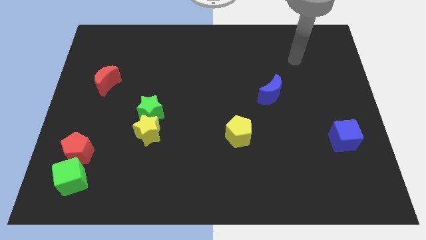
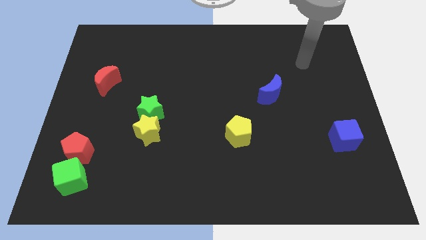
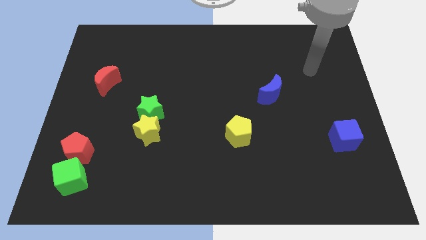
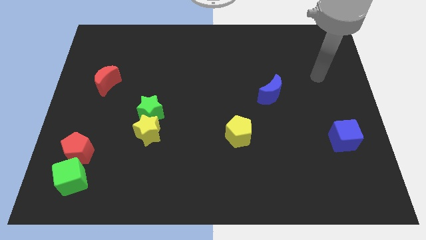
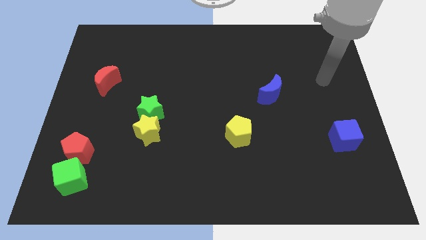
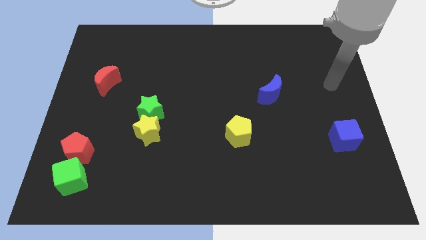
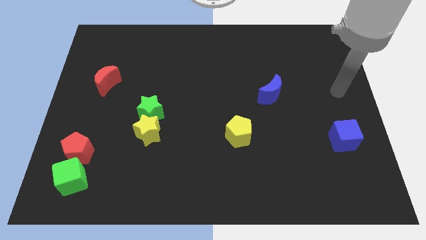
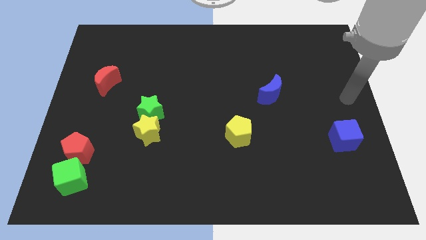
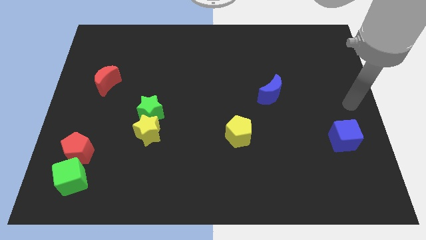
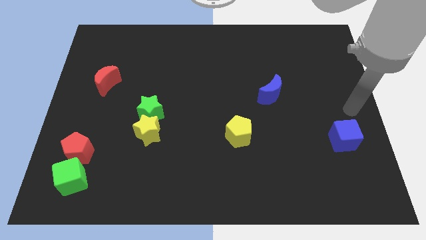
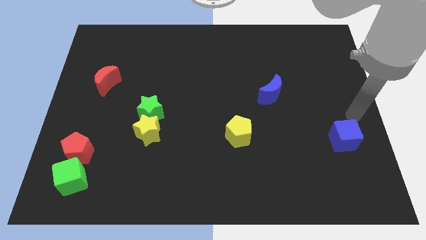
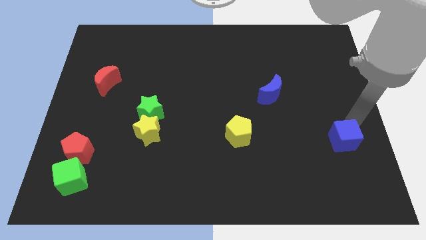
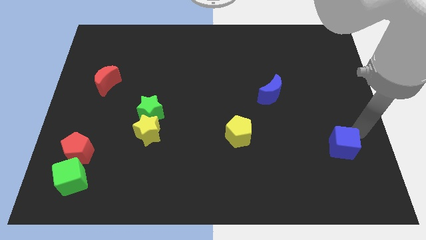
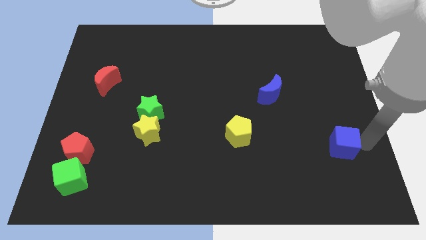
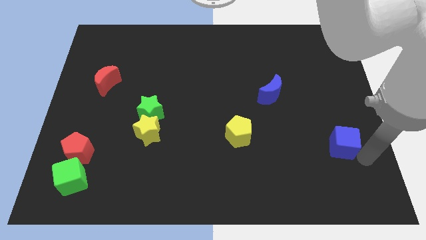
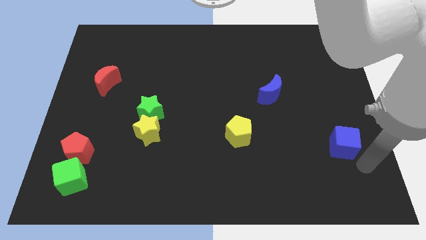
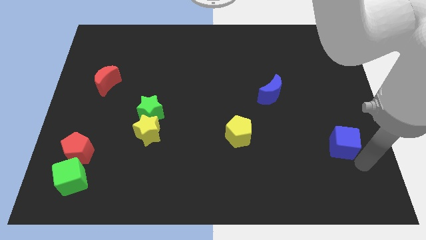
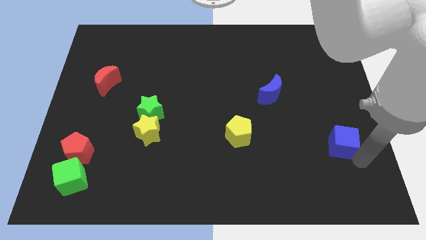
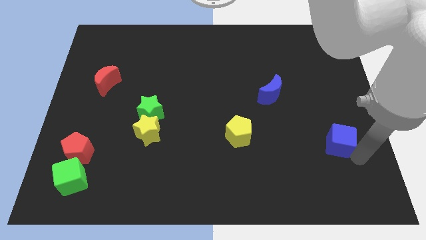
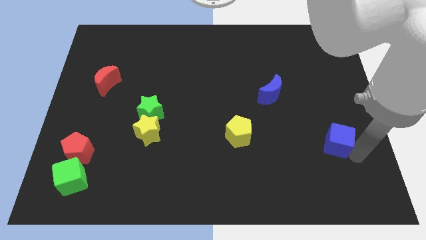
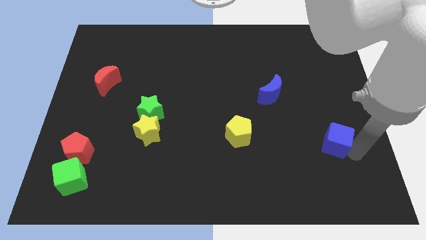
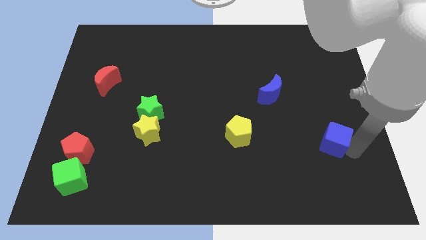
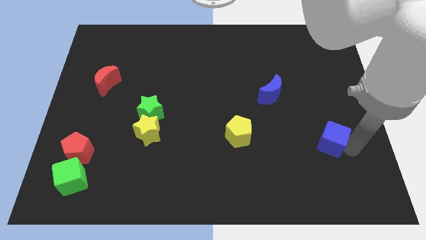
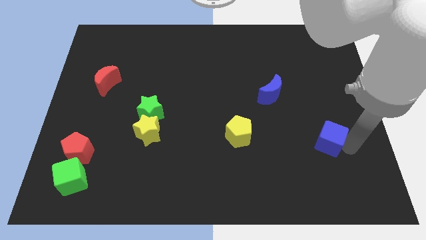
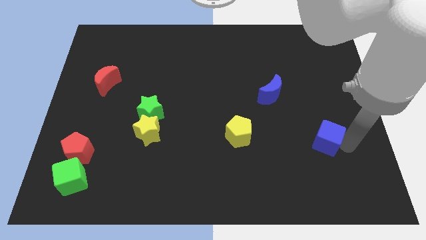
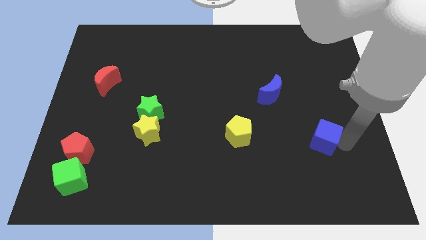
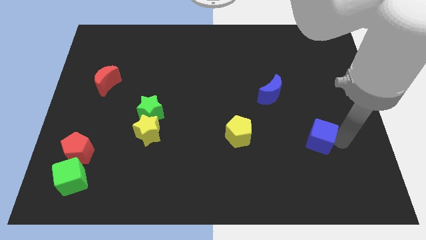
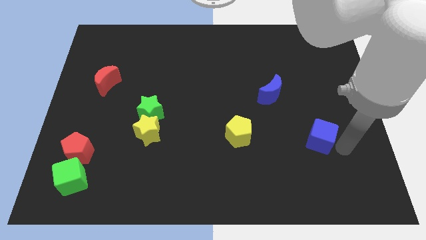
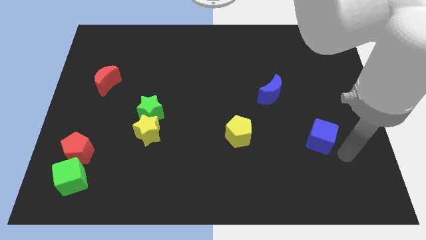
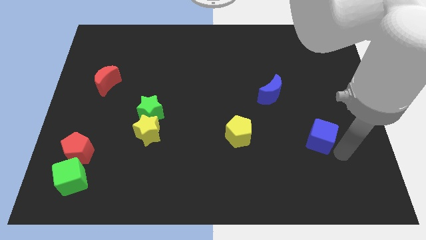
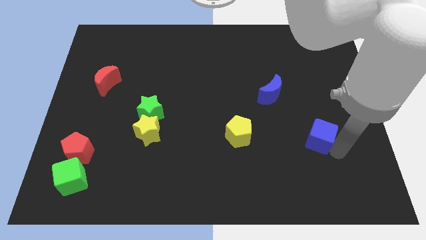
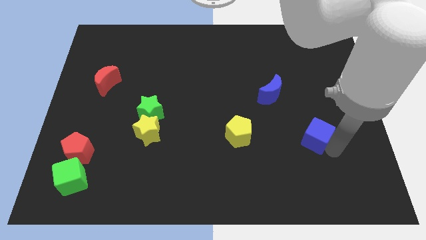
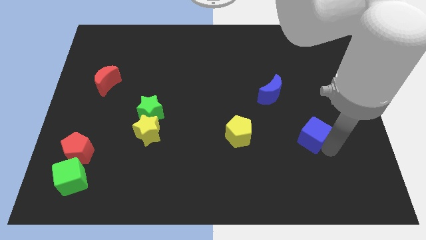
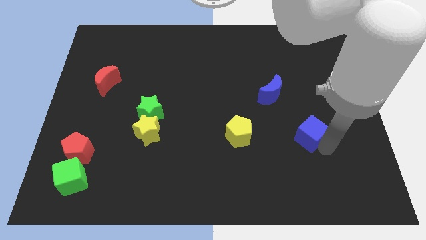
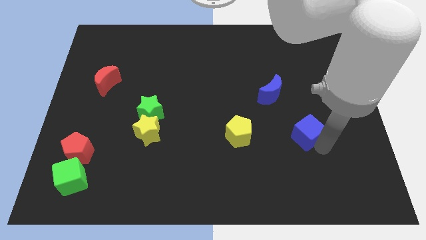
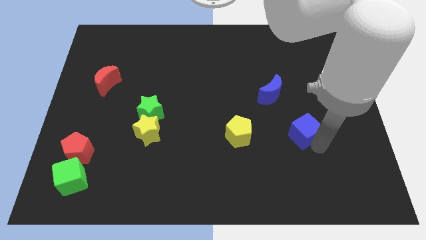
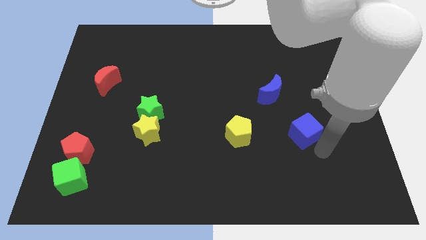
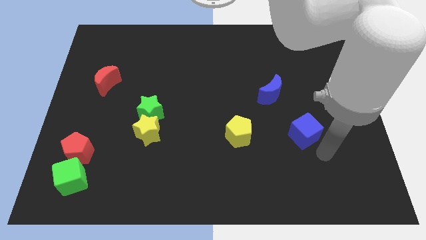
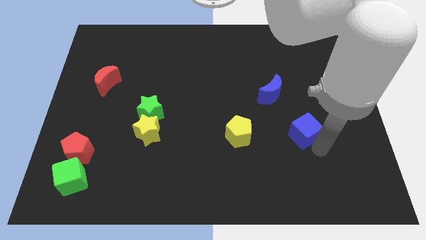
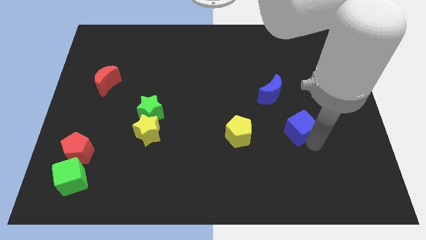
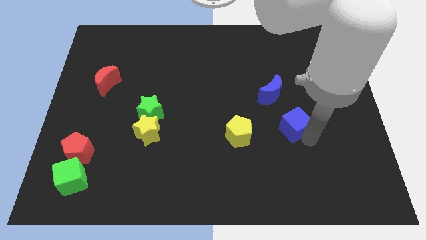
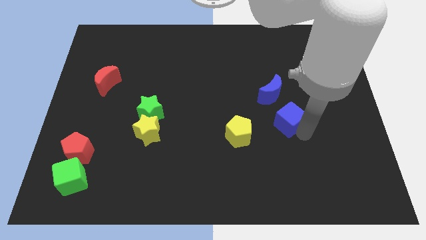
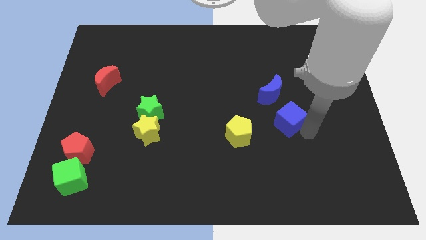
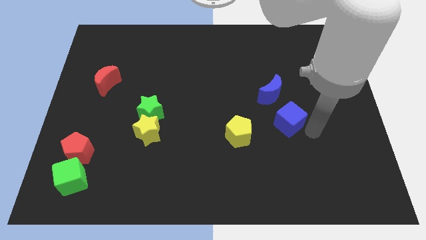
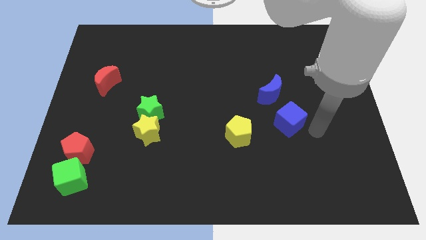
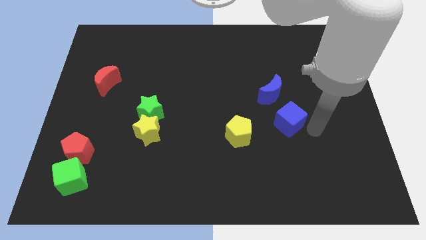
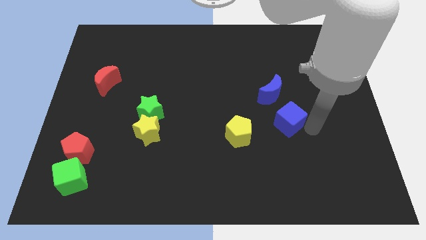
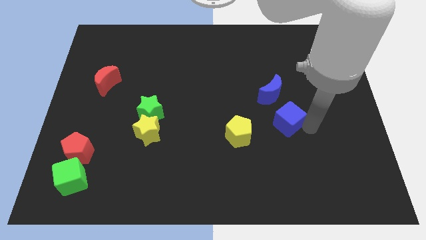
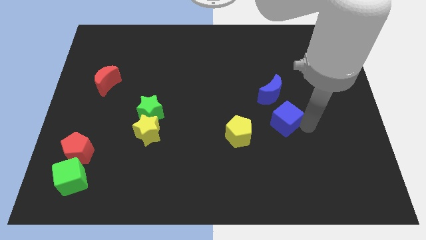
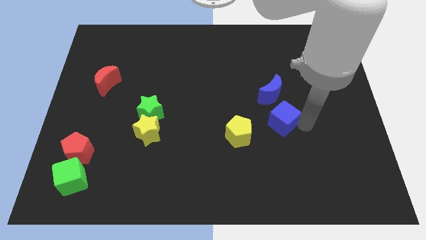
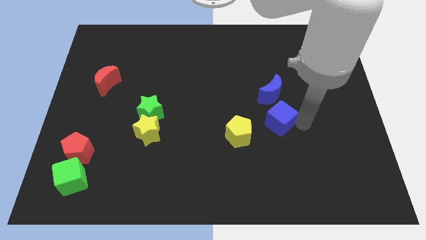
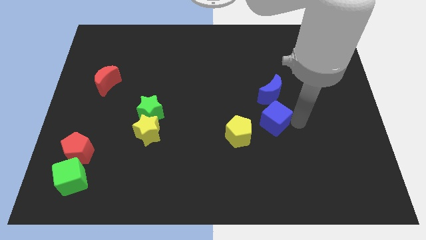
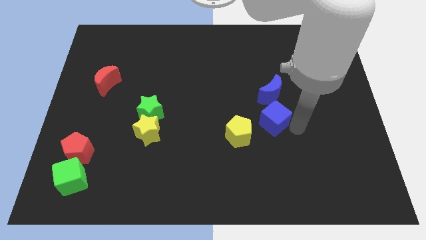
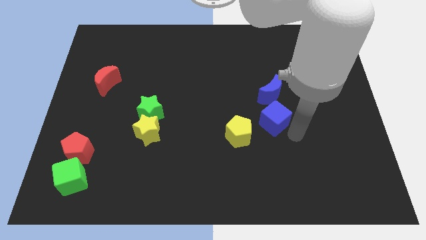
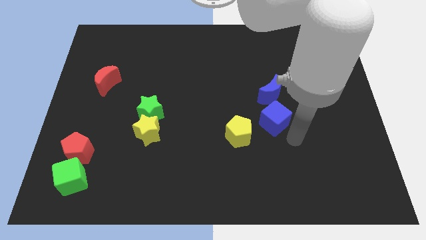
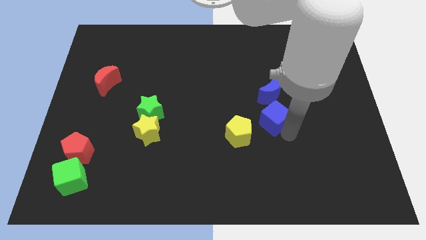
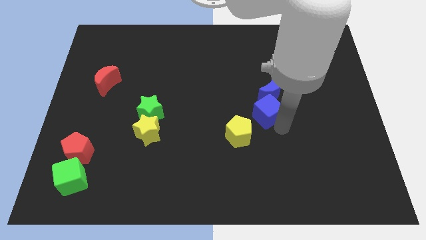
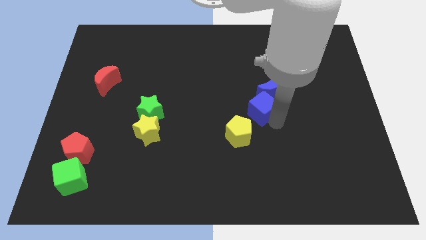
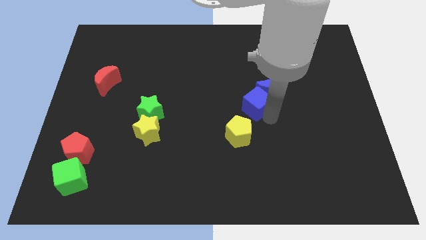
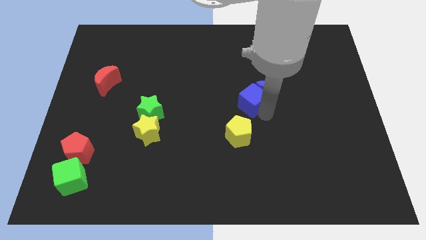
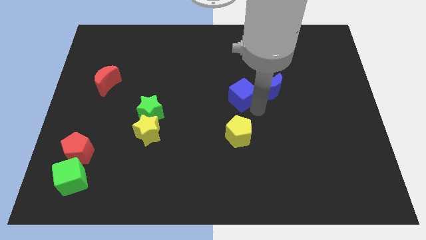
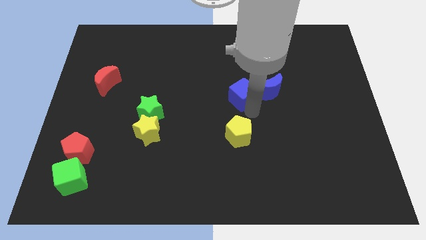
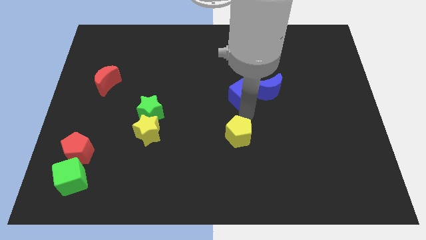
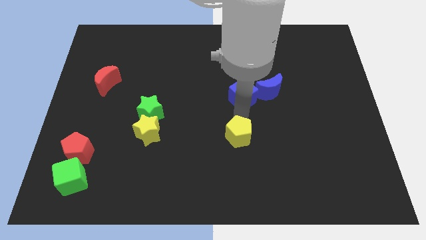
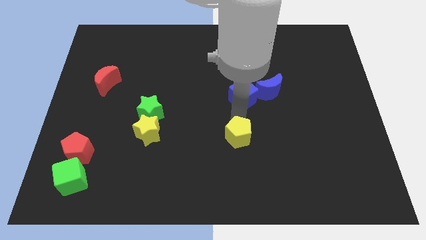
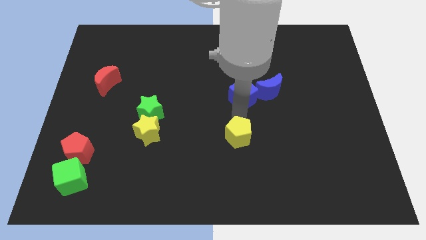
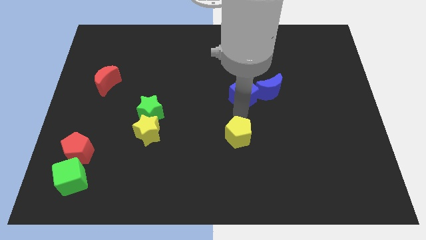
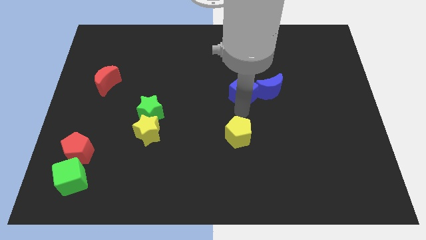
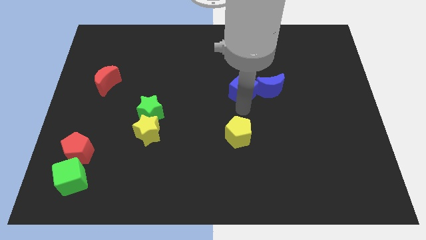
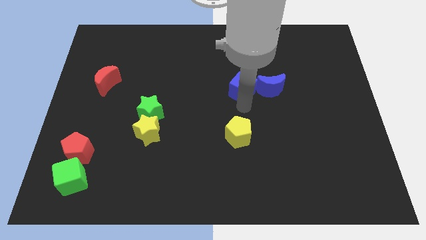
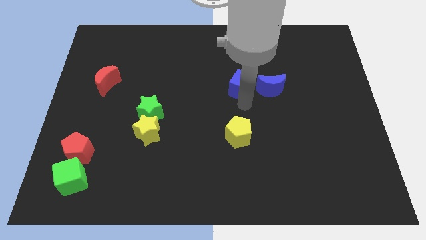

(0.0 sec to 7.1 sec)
push the blue cube diagonally up and to the left of the blue moon
